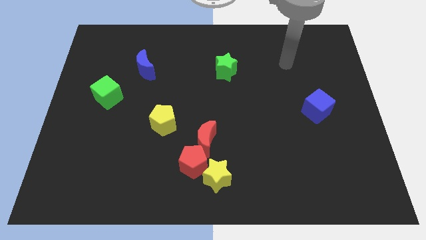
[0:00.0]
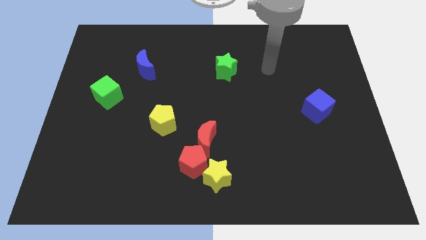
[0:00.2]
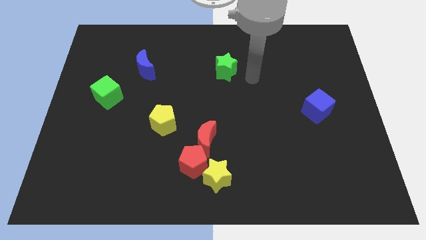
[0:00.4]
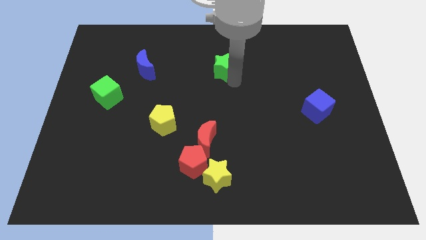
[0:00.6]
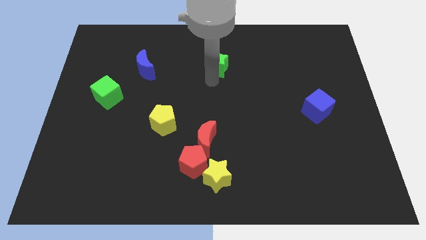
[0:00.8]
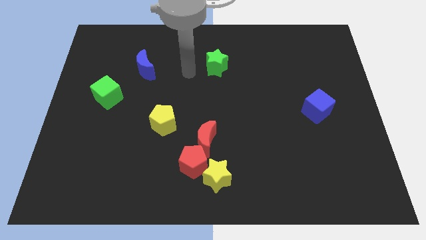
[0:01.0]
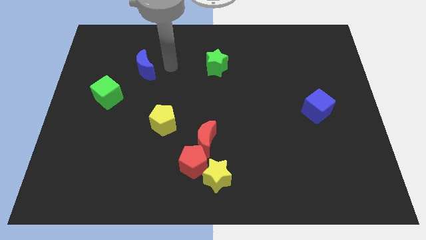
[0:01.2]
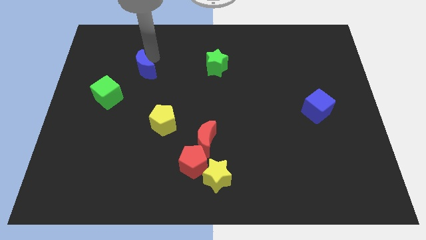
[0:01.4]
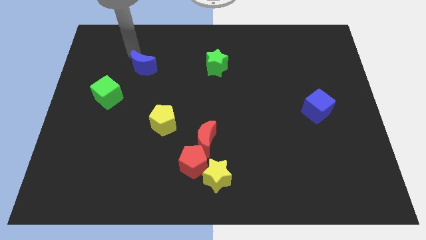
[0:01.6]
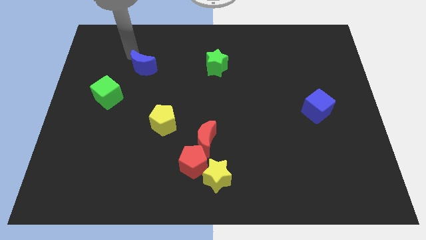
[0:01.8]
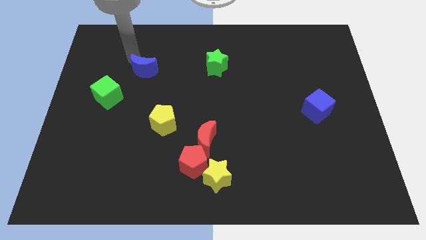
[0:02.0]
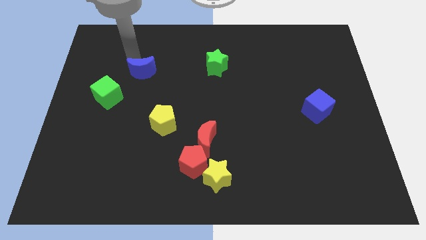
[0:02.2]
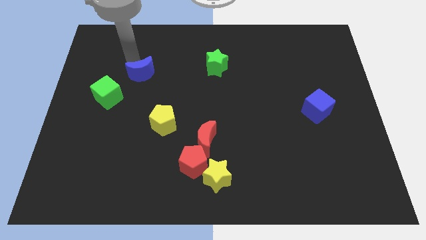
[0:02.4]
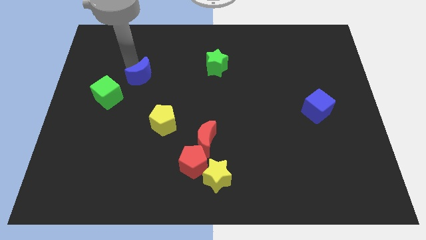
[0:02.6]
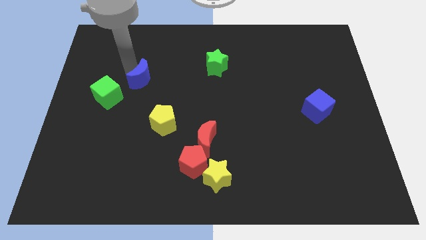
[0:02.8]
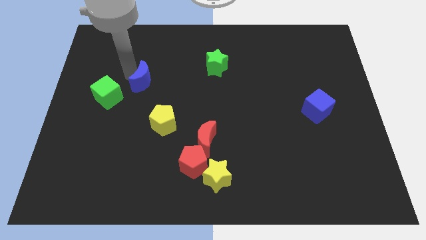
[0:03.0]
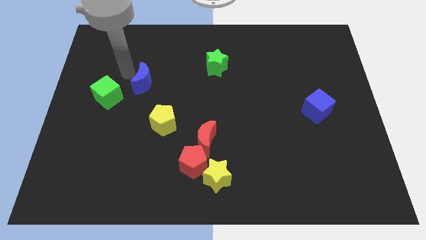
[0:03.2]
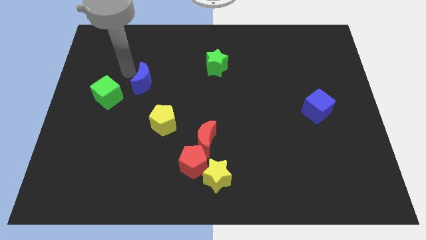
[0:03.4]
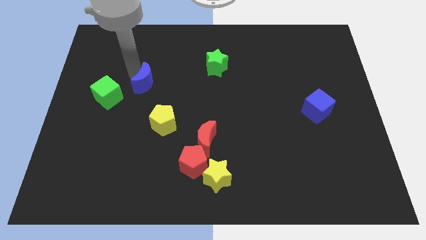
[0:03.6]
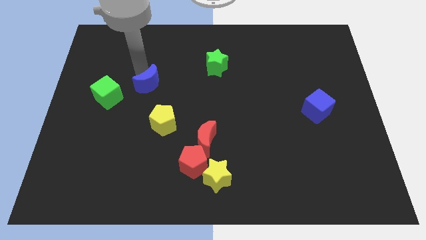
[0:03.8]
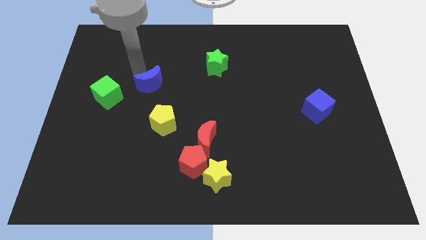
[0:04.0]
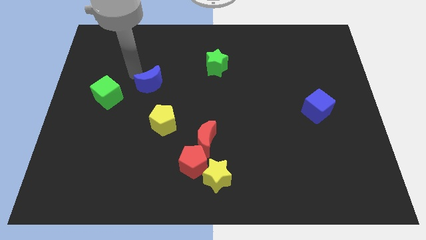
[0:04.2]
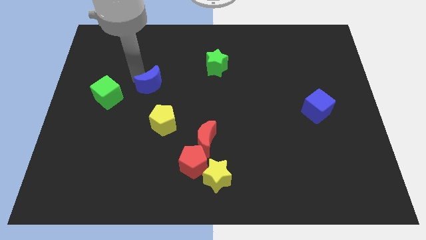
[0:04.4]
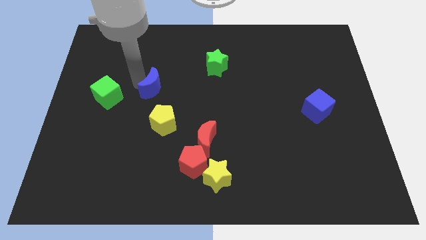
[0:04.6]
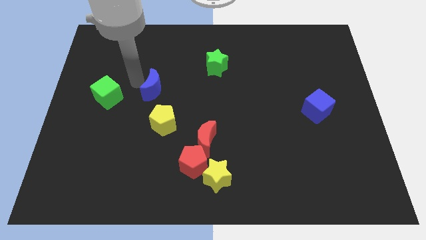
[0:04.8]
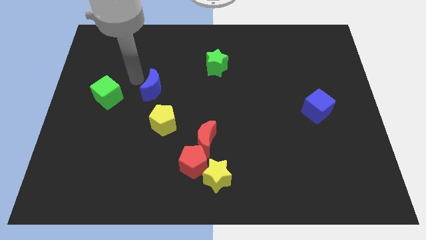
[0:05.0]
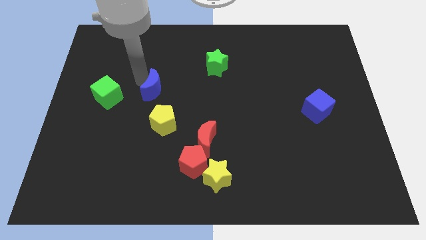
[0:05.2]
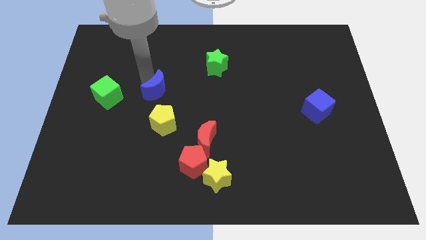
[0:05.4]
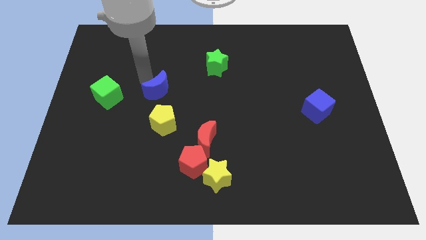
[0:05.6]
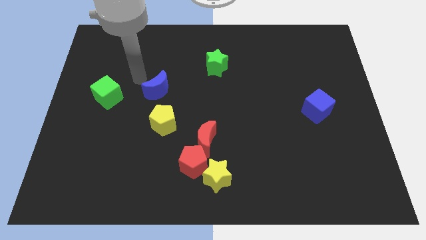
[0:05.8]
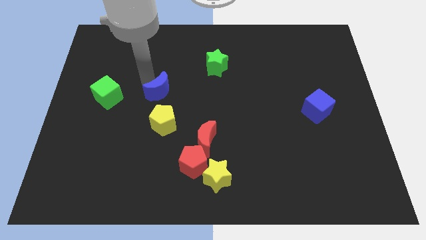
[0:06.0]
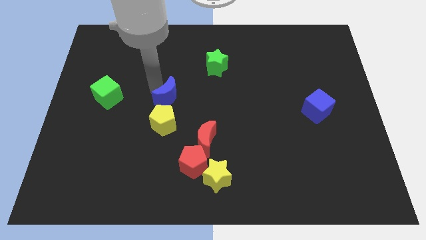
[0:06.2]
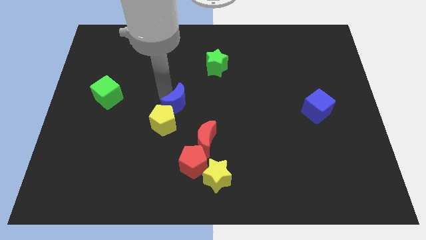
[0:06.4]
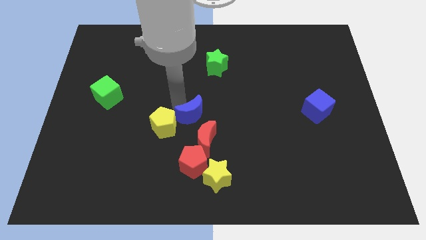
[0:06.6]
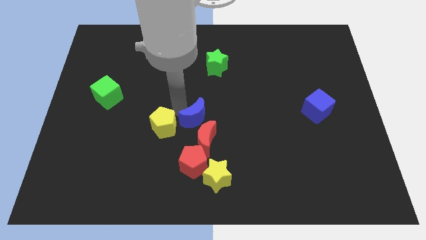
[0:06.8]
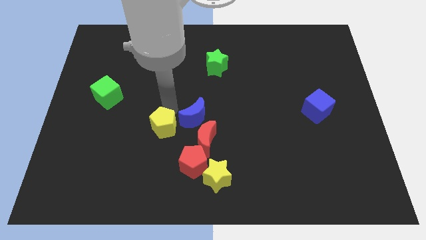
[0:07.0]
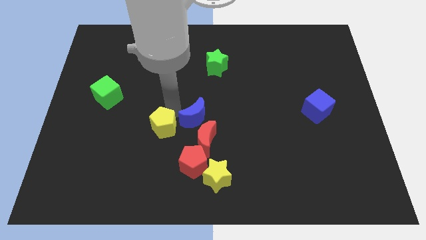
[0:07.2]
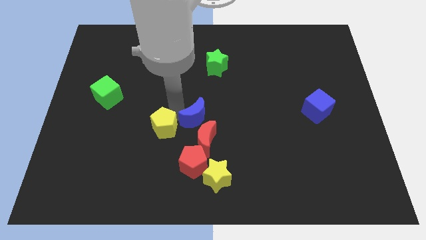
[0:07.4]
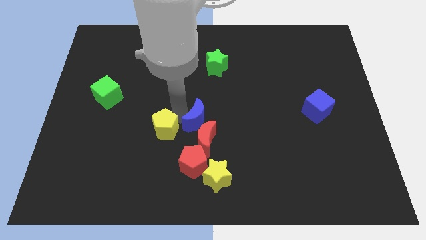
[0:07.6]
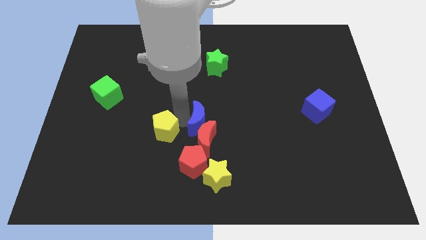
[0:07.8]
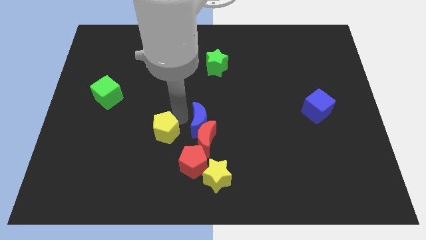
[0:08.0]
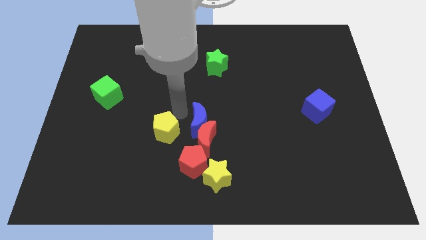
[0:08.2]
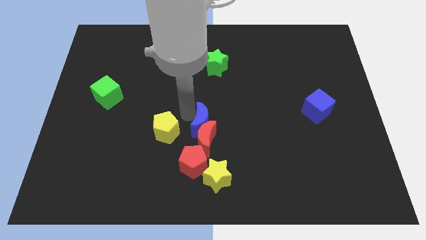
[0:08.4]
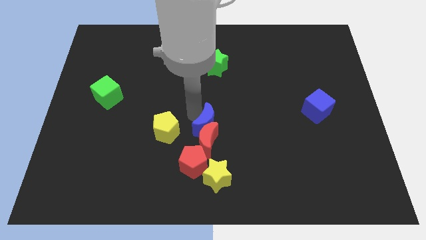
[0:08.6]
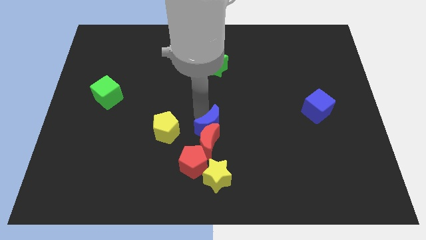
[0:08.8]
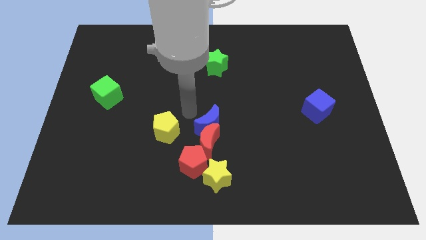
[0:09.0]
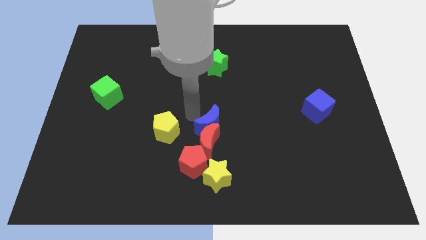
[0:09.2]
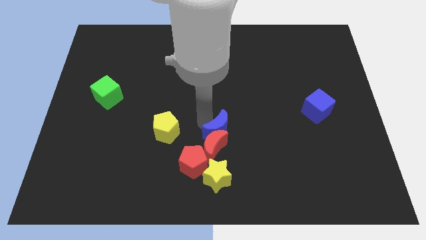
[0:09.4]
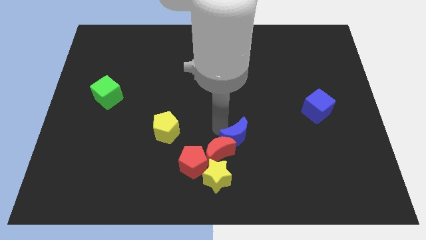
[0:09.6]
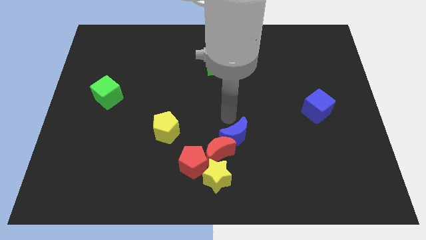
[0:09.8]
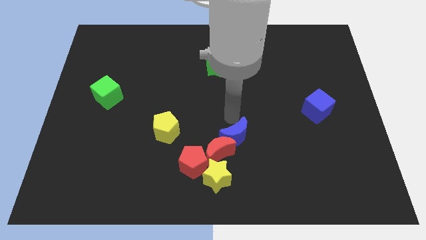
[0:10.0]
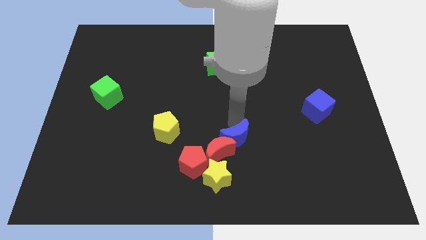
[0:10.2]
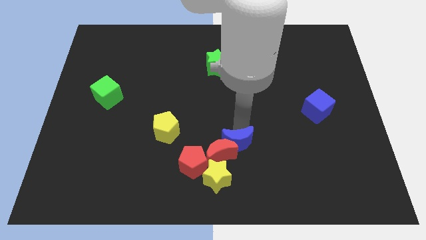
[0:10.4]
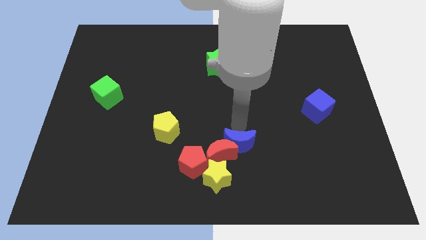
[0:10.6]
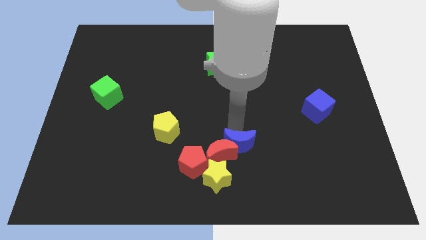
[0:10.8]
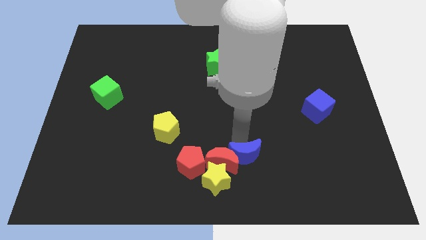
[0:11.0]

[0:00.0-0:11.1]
slide the blue moon to the bottom right of the red moon

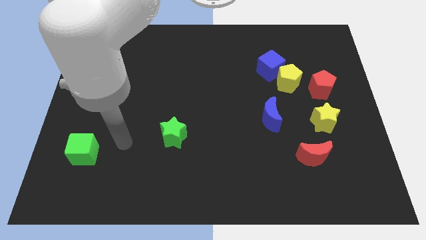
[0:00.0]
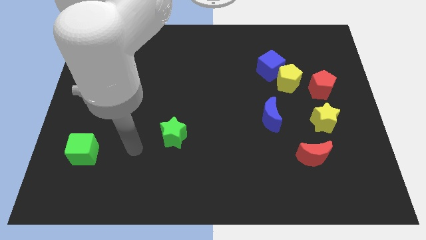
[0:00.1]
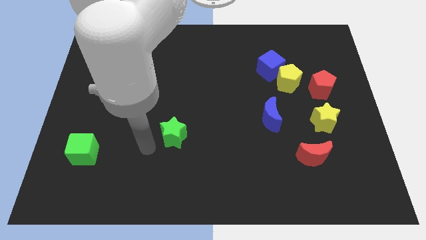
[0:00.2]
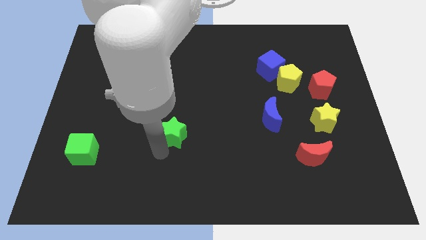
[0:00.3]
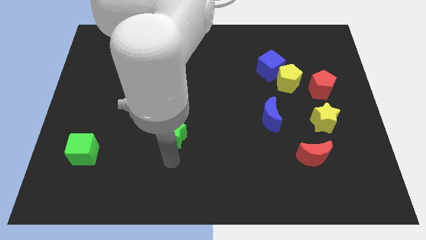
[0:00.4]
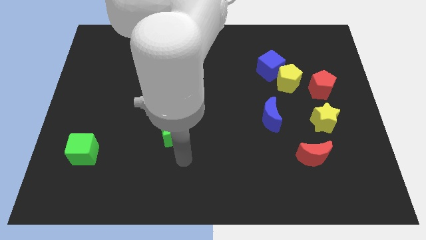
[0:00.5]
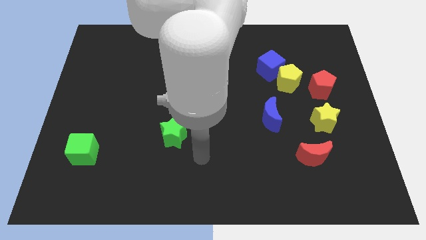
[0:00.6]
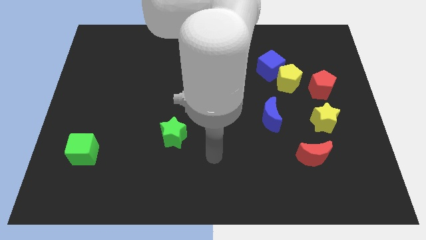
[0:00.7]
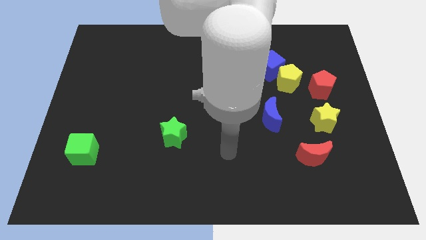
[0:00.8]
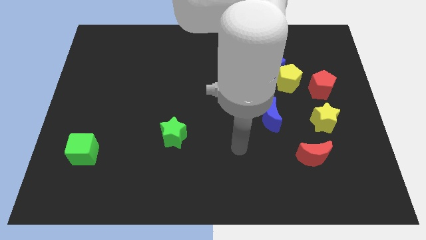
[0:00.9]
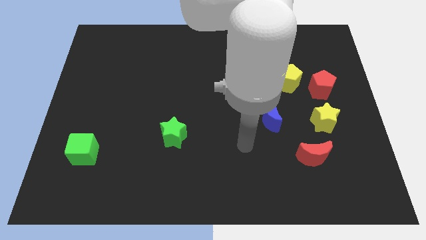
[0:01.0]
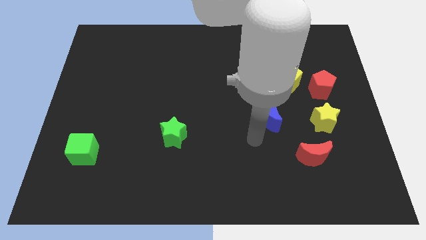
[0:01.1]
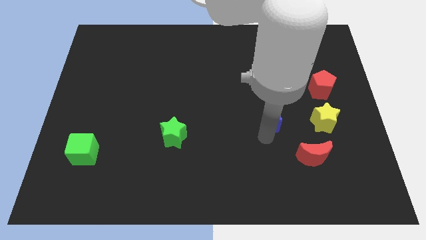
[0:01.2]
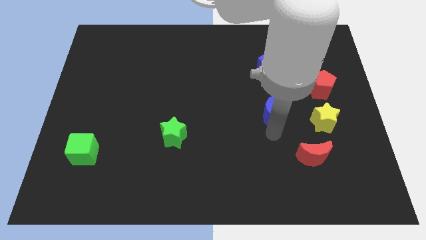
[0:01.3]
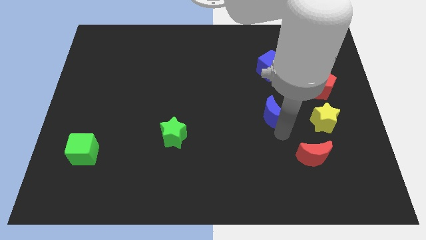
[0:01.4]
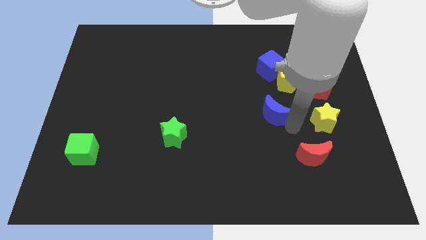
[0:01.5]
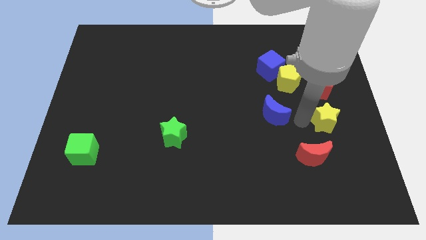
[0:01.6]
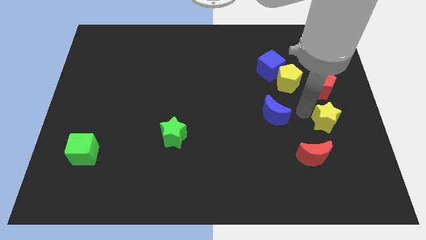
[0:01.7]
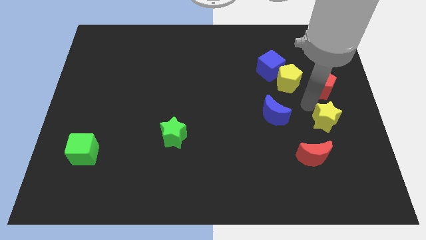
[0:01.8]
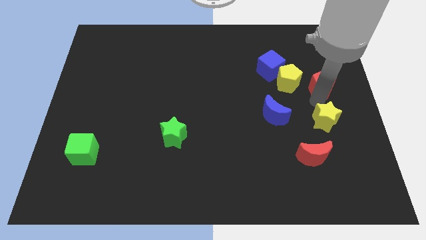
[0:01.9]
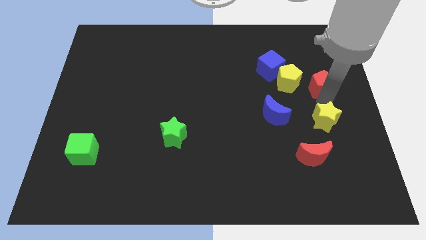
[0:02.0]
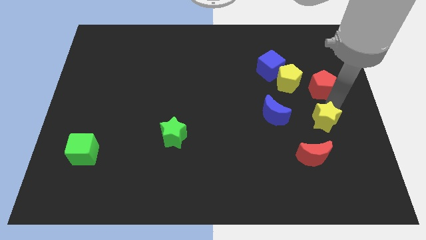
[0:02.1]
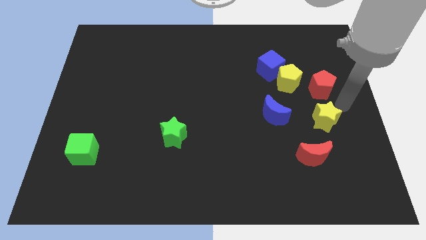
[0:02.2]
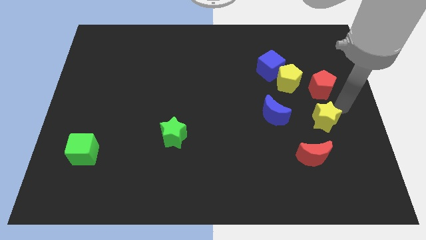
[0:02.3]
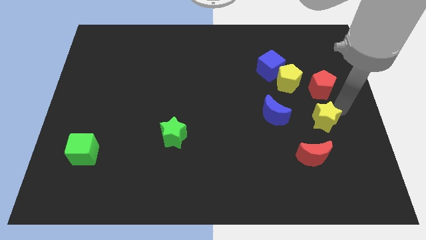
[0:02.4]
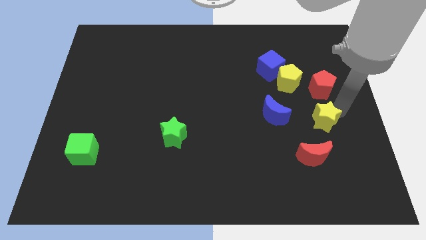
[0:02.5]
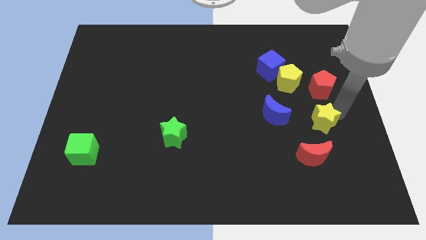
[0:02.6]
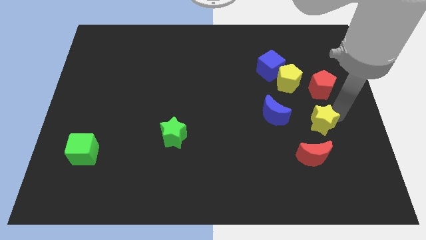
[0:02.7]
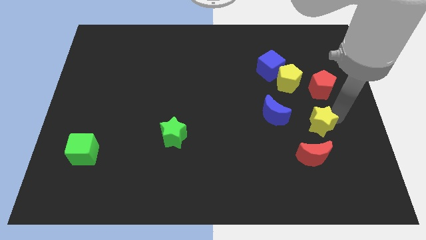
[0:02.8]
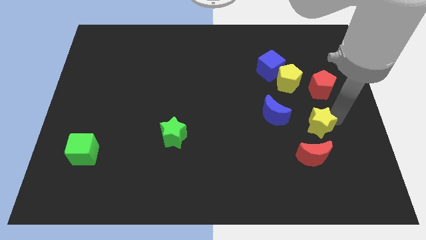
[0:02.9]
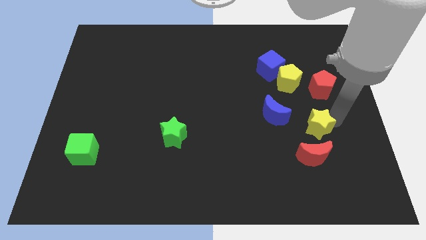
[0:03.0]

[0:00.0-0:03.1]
slide the yellow star diagonally down and to the right of the blue moon
